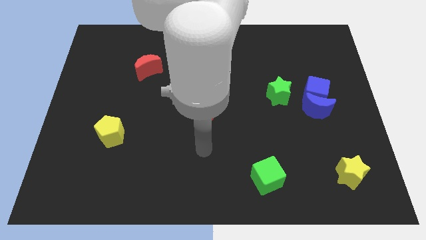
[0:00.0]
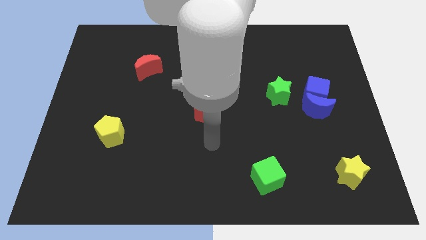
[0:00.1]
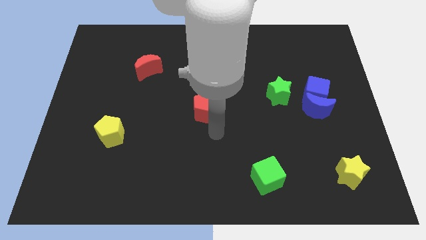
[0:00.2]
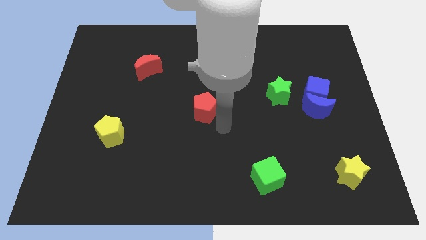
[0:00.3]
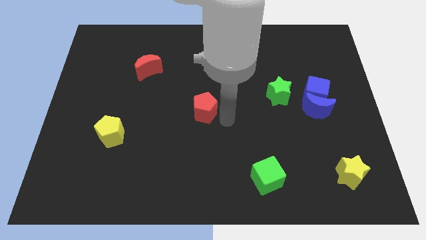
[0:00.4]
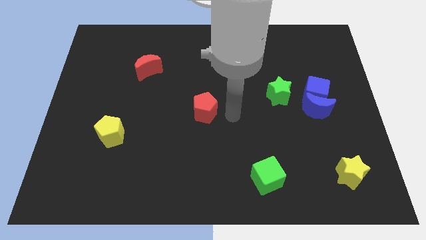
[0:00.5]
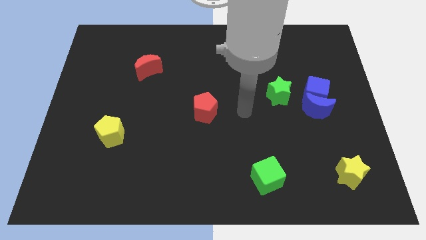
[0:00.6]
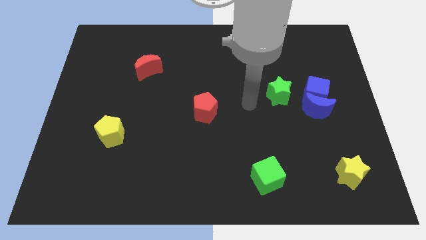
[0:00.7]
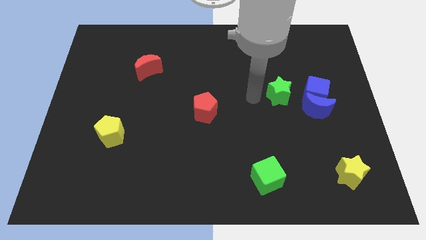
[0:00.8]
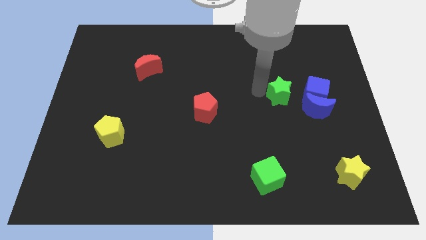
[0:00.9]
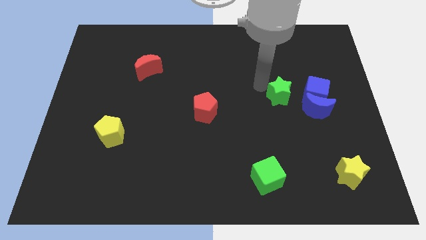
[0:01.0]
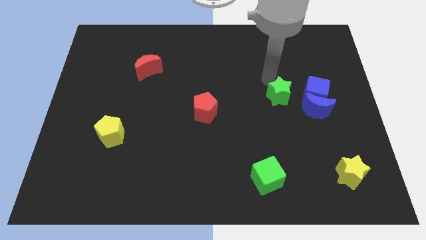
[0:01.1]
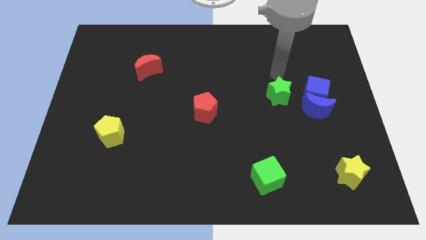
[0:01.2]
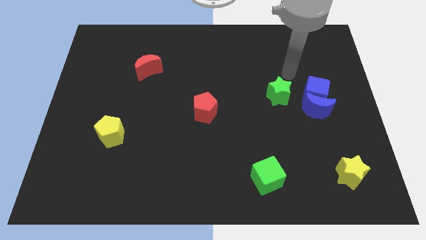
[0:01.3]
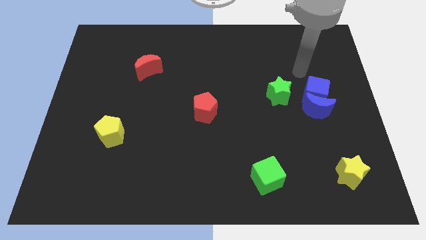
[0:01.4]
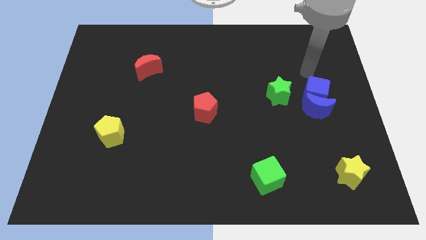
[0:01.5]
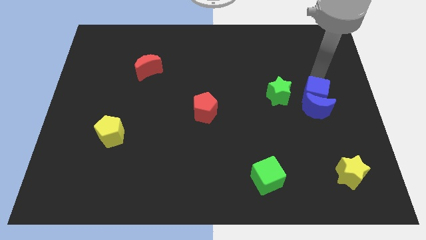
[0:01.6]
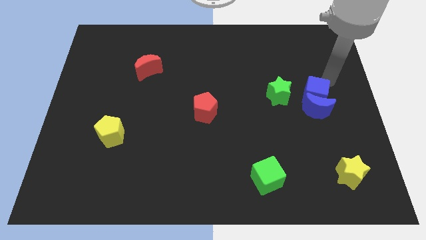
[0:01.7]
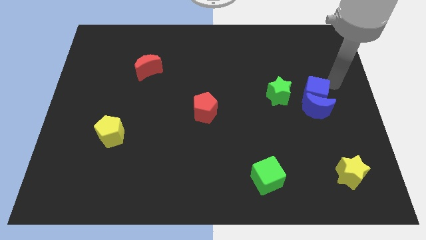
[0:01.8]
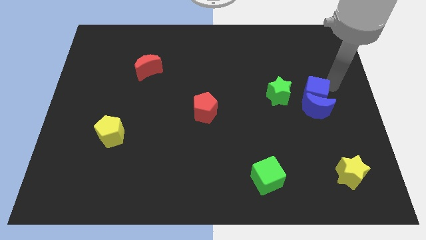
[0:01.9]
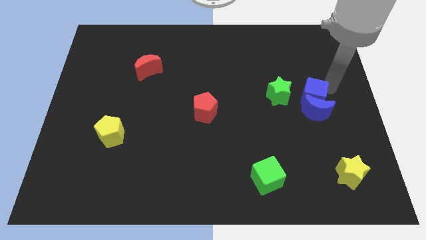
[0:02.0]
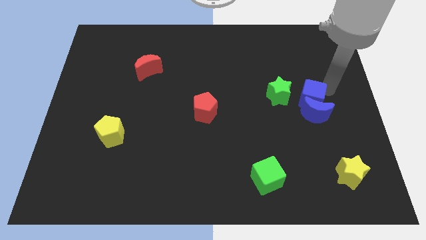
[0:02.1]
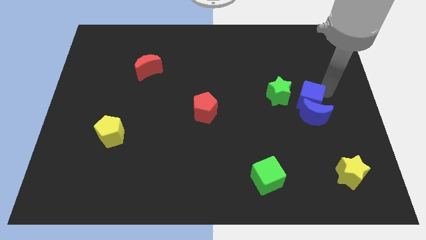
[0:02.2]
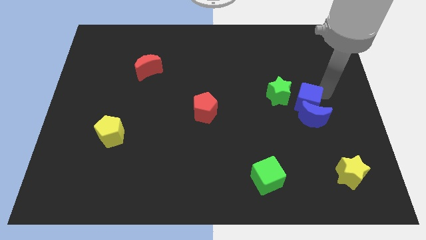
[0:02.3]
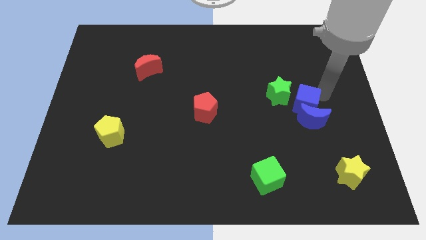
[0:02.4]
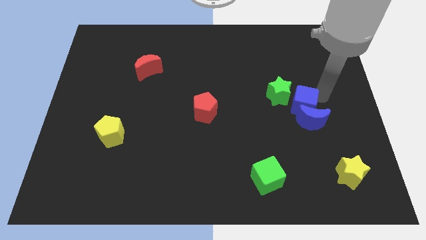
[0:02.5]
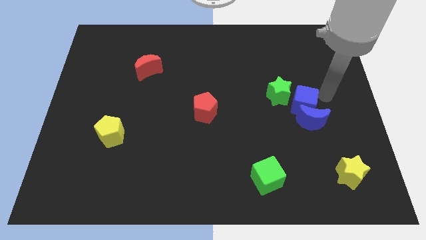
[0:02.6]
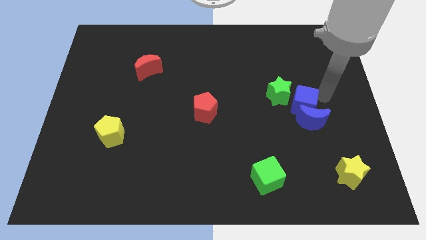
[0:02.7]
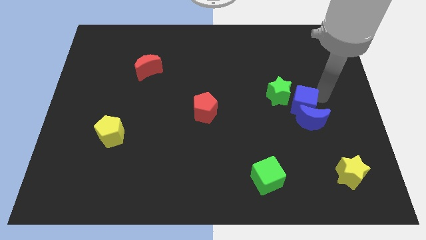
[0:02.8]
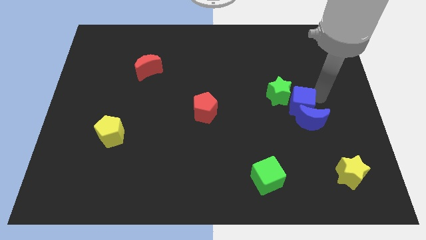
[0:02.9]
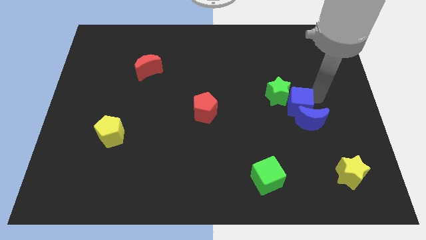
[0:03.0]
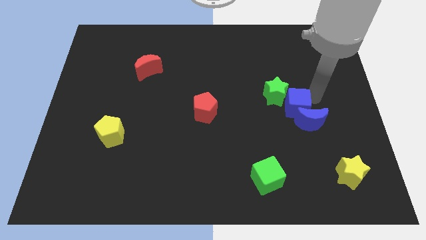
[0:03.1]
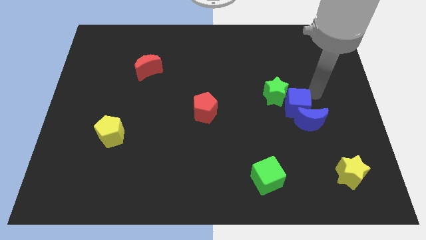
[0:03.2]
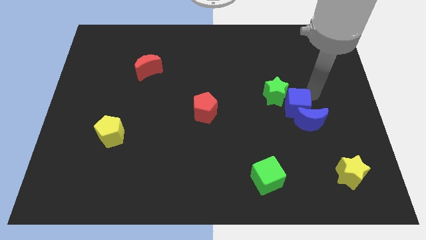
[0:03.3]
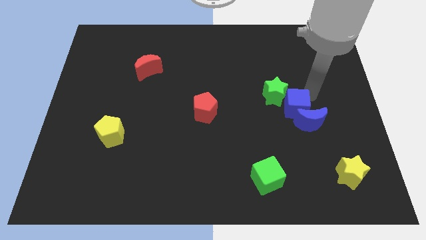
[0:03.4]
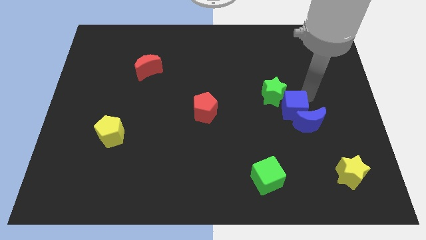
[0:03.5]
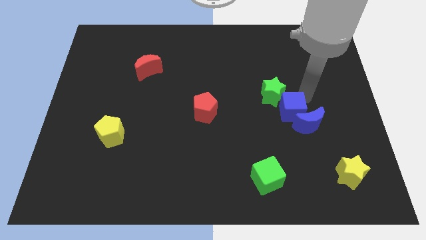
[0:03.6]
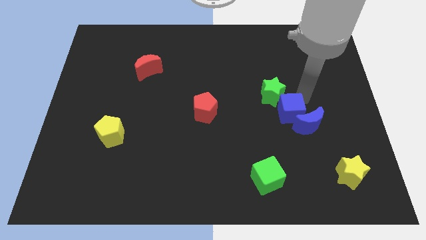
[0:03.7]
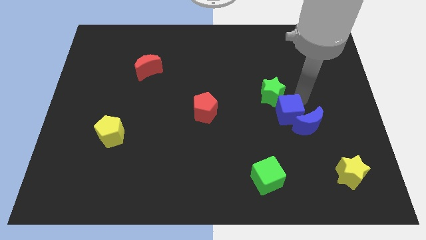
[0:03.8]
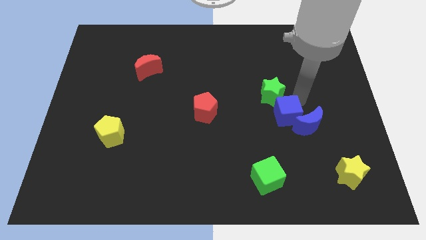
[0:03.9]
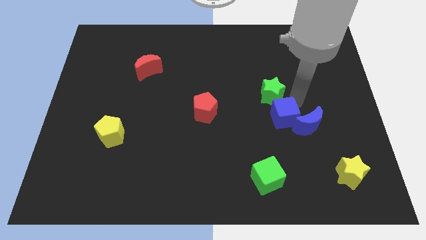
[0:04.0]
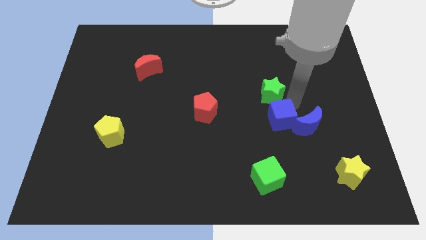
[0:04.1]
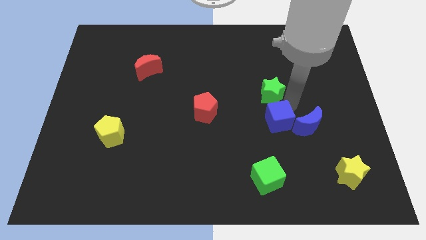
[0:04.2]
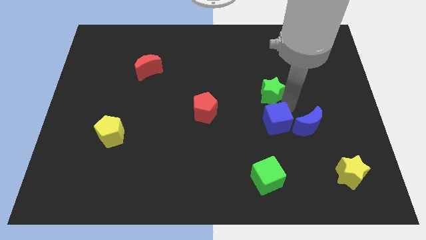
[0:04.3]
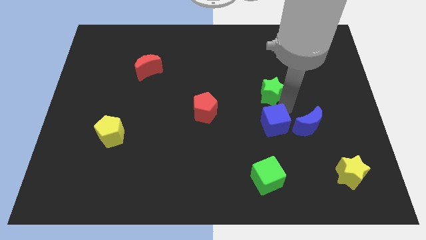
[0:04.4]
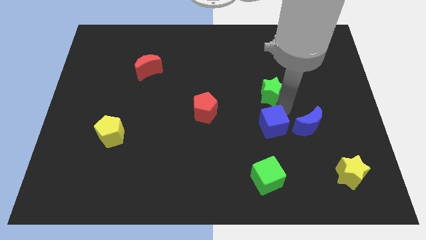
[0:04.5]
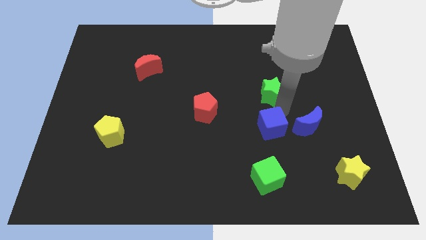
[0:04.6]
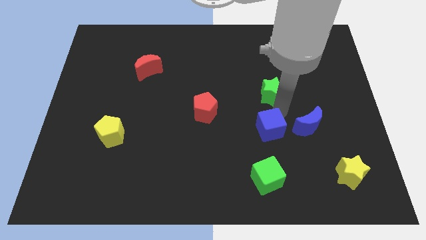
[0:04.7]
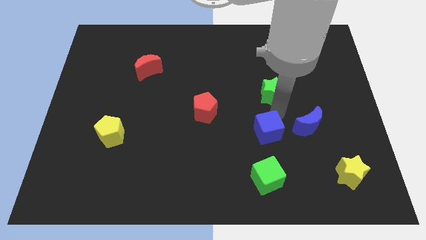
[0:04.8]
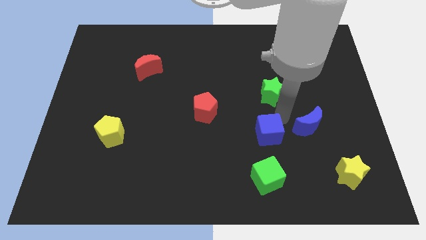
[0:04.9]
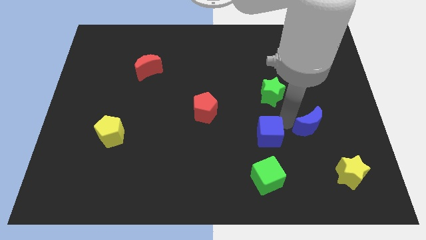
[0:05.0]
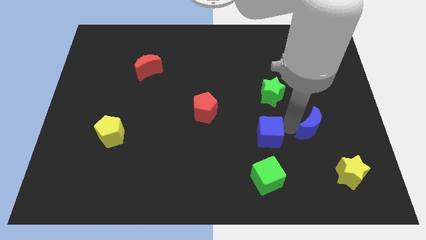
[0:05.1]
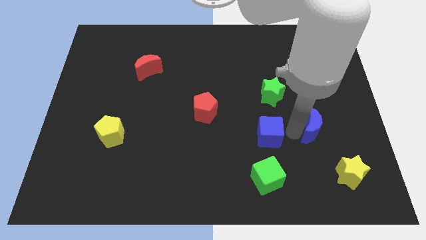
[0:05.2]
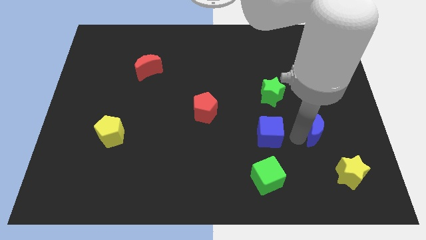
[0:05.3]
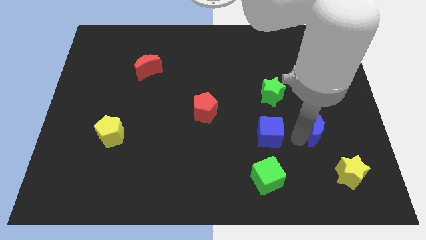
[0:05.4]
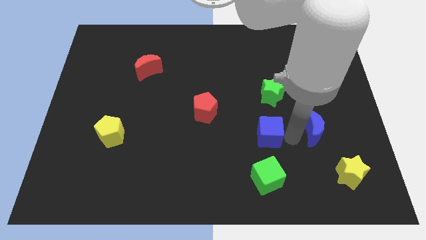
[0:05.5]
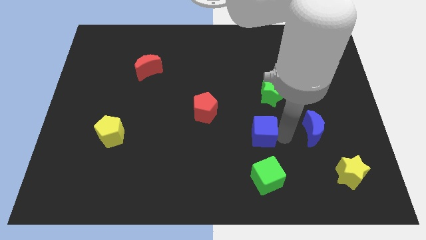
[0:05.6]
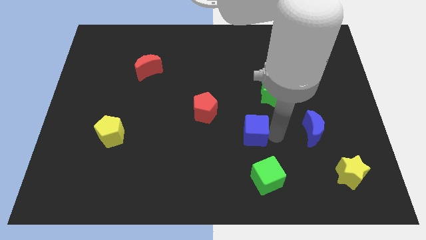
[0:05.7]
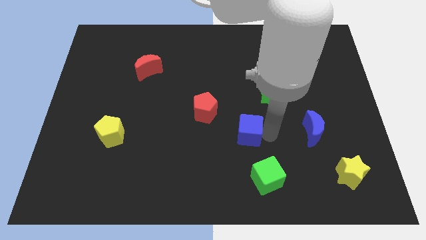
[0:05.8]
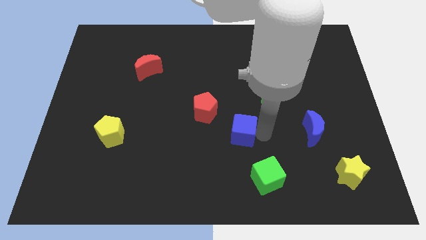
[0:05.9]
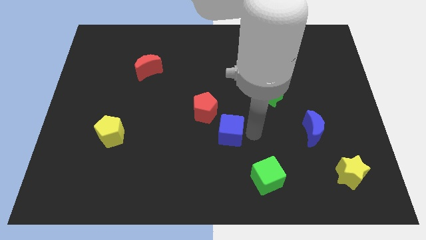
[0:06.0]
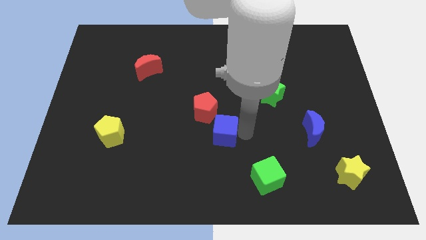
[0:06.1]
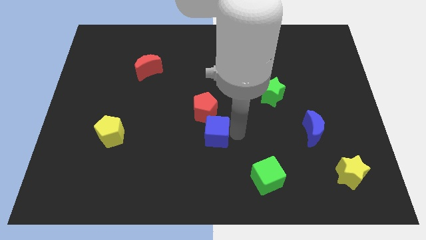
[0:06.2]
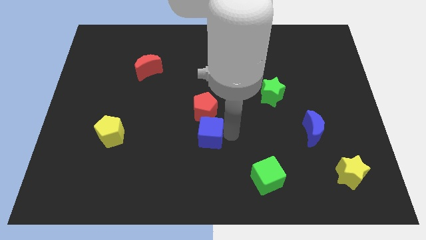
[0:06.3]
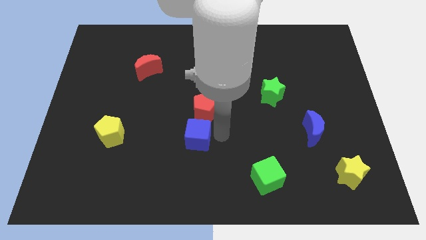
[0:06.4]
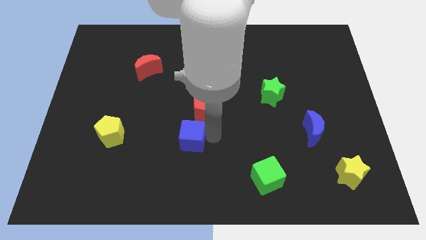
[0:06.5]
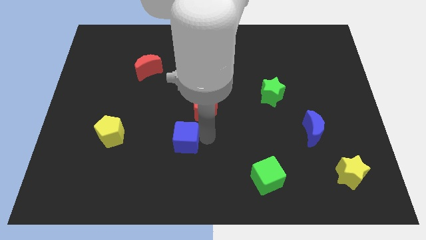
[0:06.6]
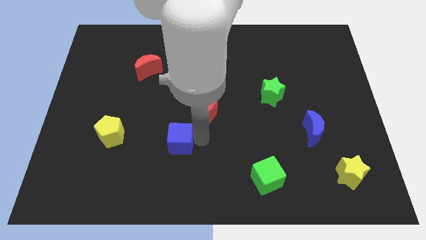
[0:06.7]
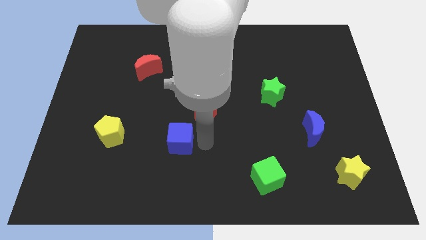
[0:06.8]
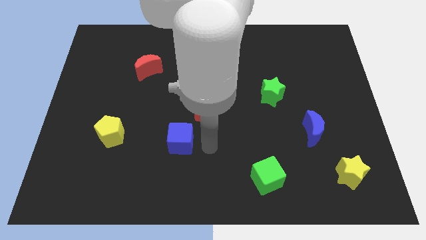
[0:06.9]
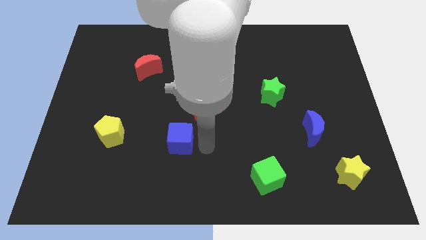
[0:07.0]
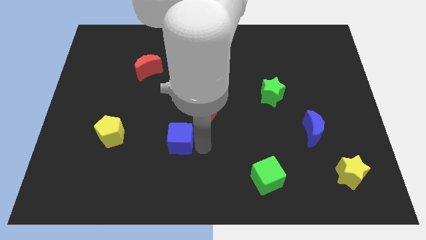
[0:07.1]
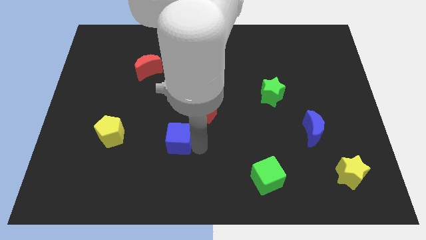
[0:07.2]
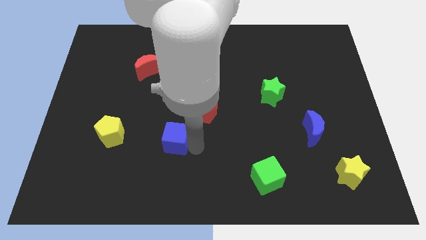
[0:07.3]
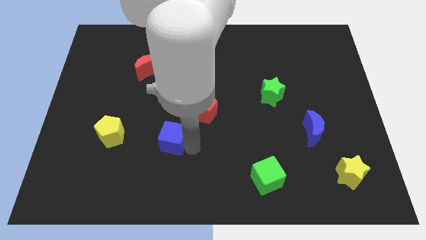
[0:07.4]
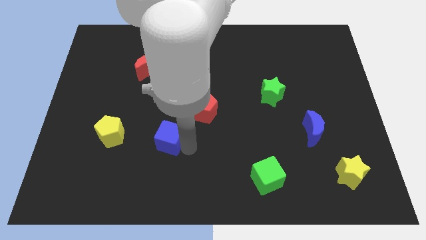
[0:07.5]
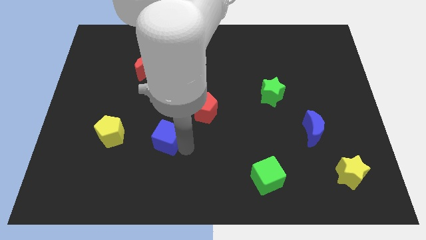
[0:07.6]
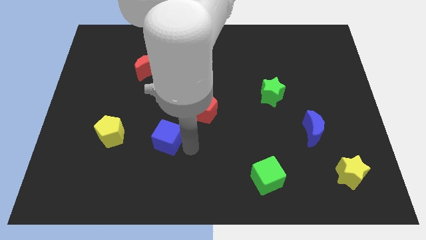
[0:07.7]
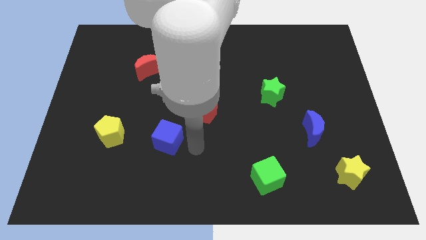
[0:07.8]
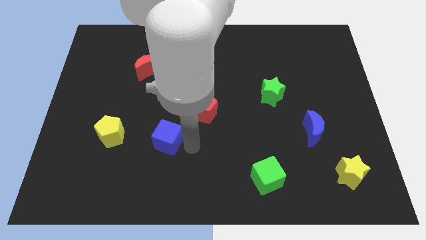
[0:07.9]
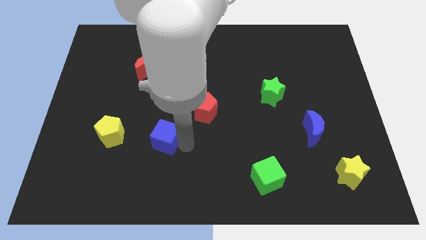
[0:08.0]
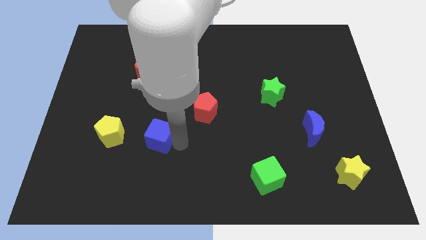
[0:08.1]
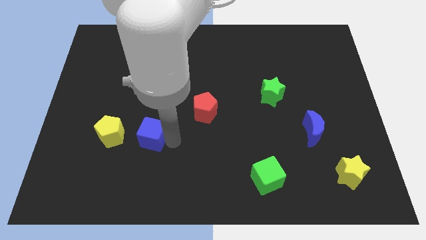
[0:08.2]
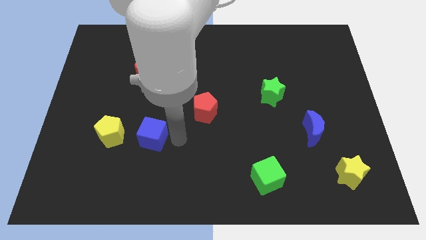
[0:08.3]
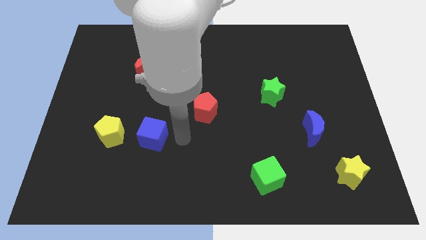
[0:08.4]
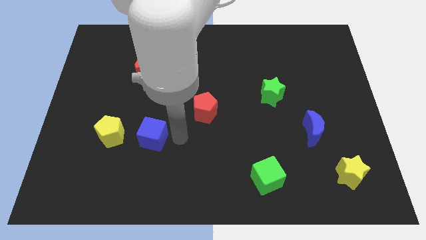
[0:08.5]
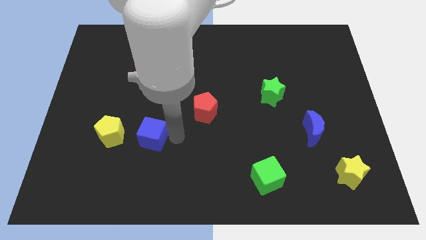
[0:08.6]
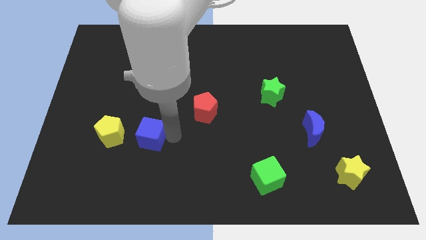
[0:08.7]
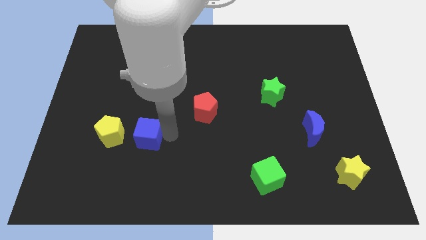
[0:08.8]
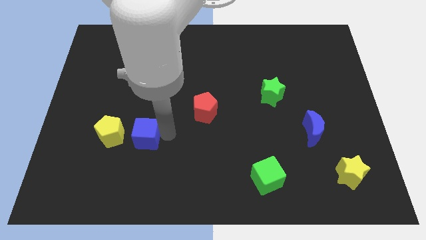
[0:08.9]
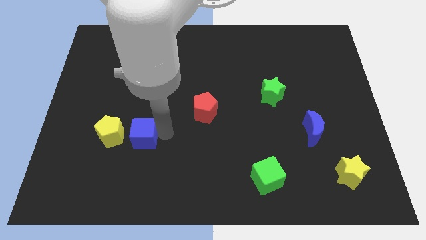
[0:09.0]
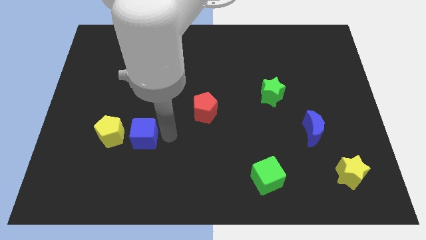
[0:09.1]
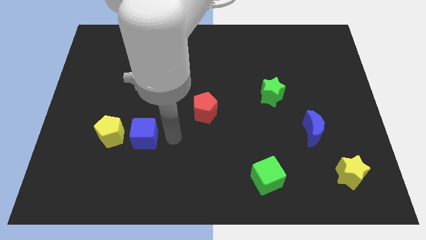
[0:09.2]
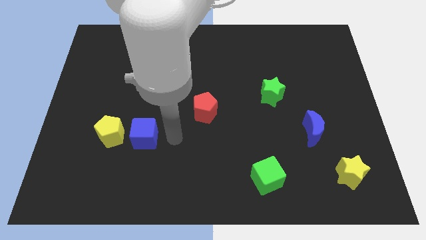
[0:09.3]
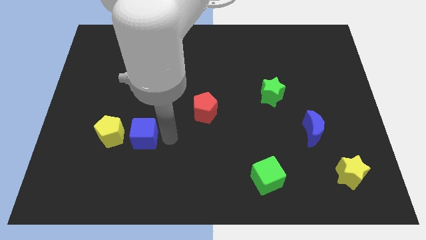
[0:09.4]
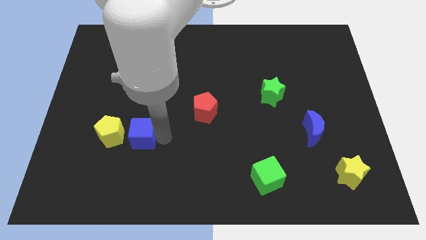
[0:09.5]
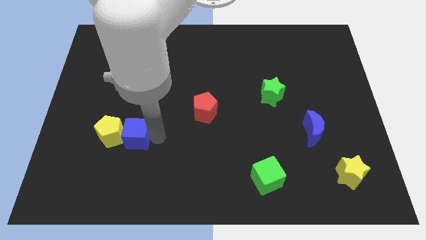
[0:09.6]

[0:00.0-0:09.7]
put the blue cube towards the yellow pentagon
